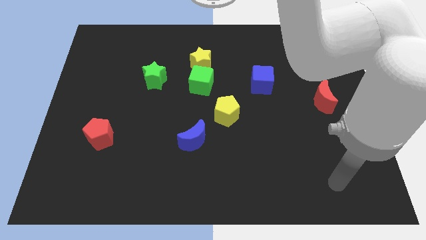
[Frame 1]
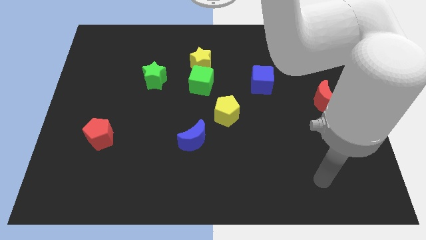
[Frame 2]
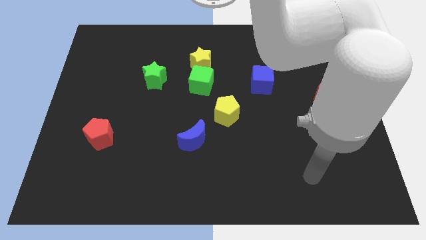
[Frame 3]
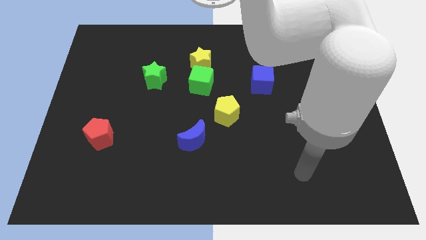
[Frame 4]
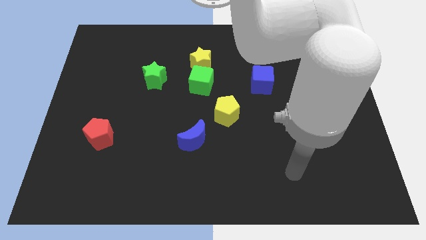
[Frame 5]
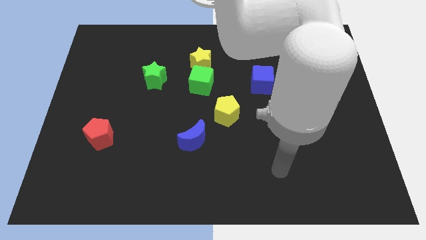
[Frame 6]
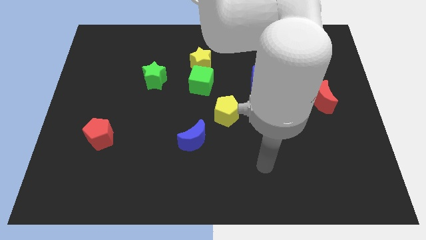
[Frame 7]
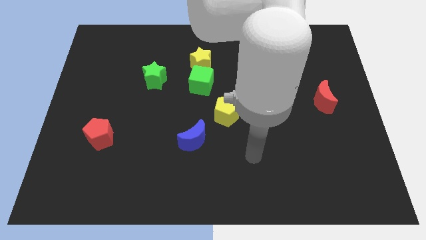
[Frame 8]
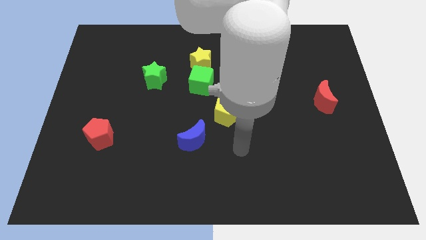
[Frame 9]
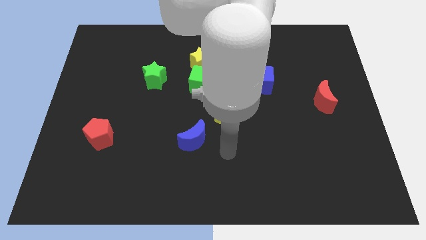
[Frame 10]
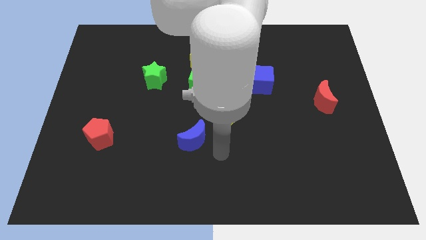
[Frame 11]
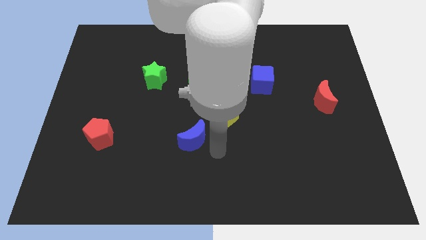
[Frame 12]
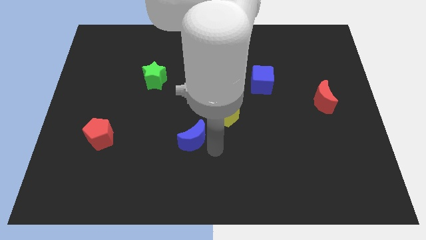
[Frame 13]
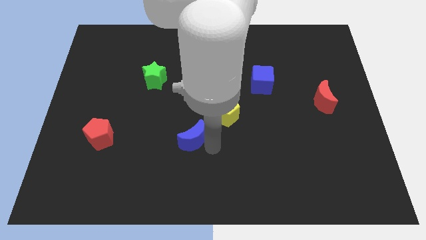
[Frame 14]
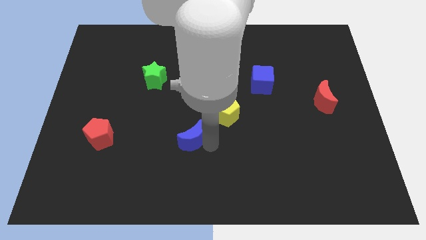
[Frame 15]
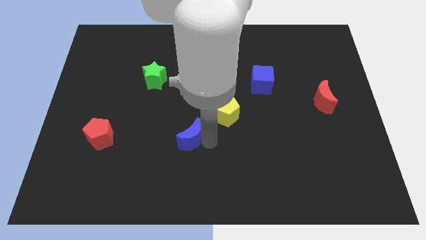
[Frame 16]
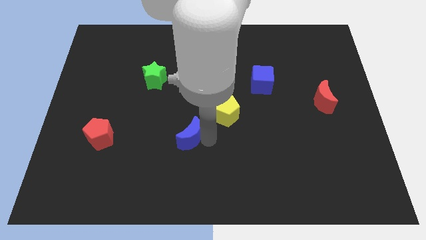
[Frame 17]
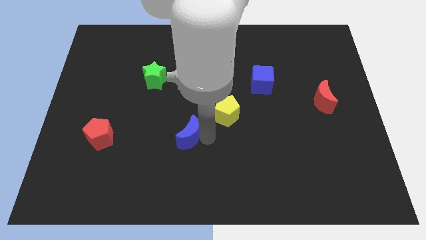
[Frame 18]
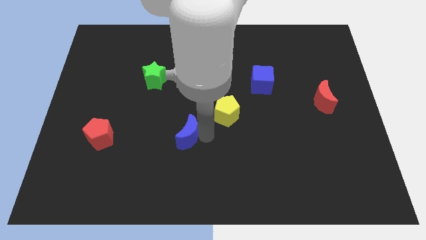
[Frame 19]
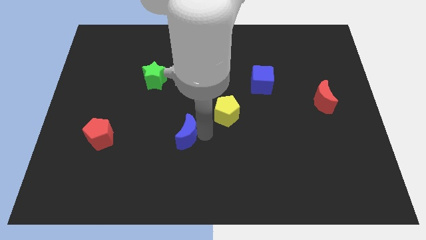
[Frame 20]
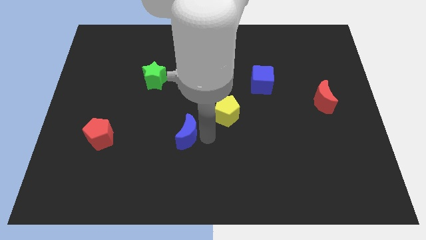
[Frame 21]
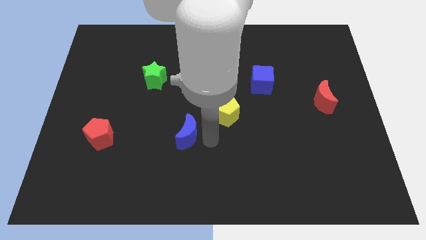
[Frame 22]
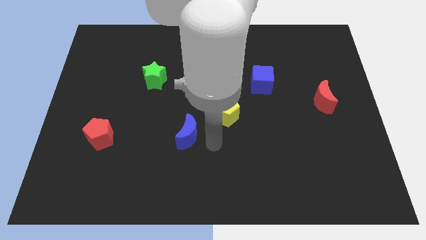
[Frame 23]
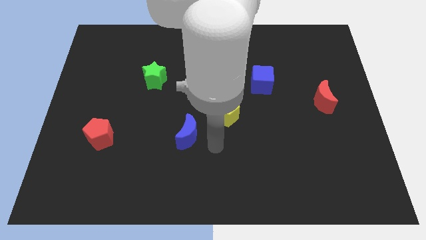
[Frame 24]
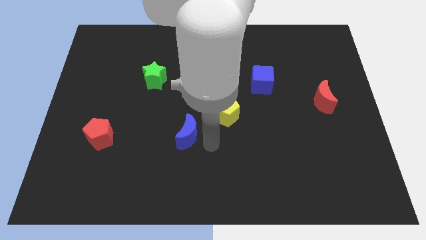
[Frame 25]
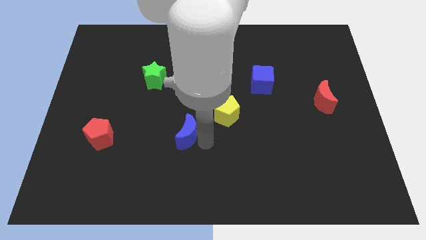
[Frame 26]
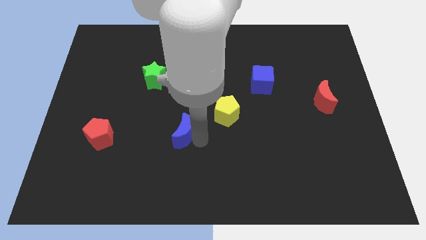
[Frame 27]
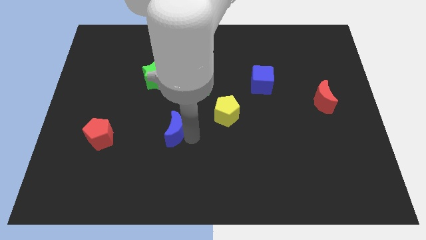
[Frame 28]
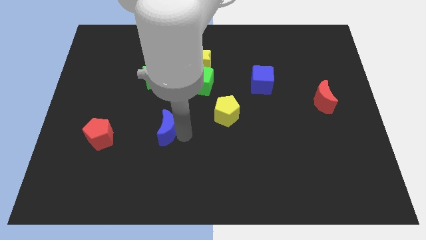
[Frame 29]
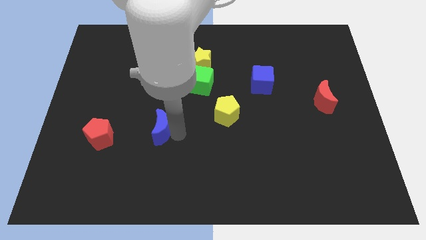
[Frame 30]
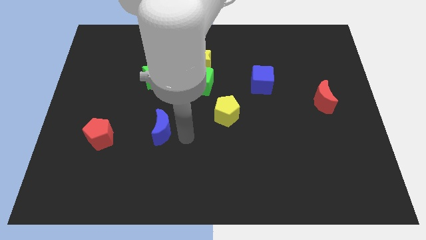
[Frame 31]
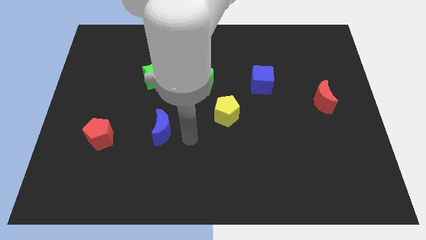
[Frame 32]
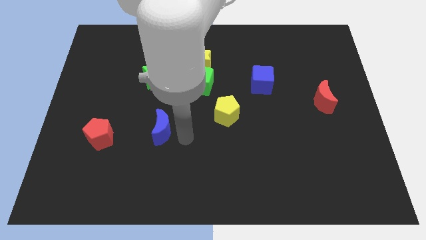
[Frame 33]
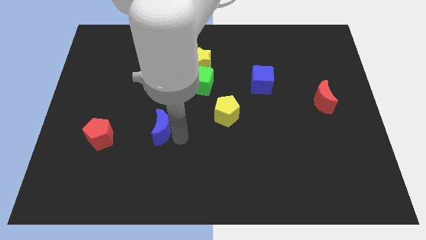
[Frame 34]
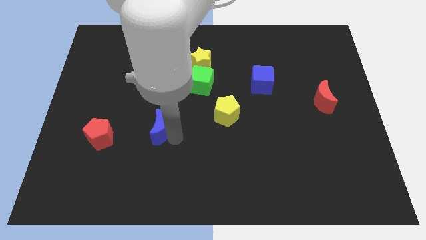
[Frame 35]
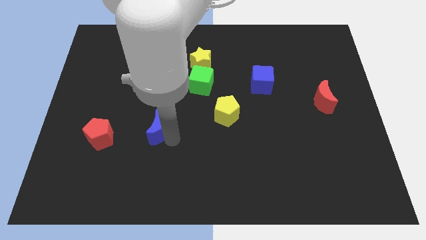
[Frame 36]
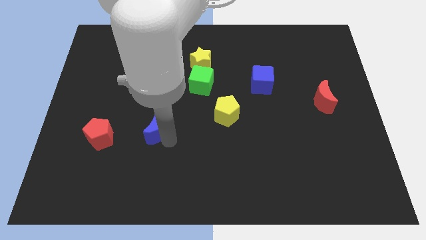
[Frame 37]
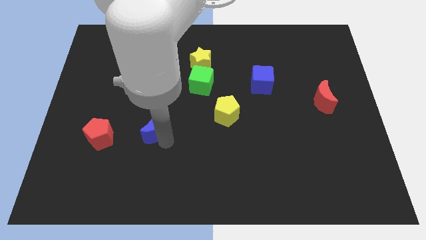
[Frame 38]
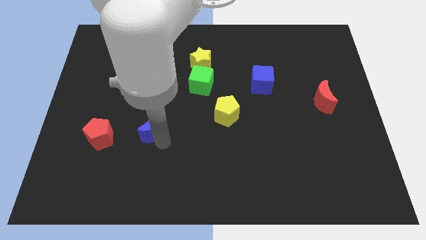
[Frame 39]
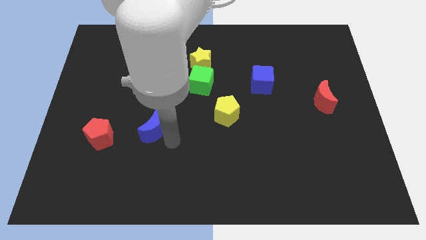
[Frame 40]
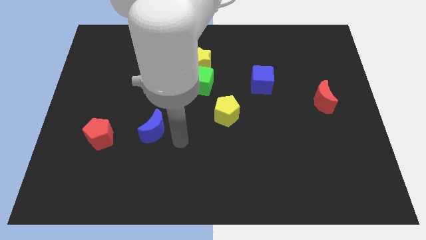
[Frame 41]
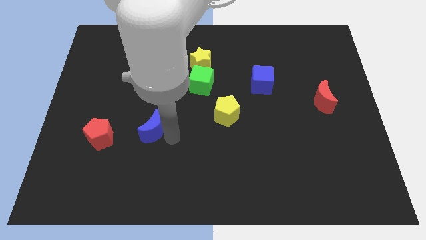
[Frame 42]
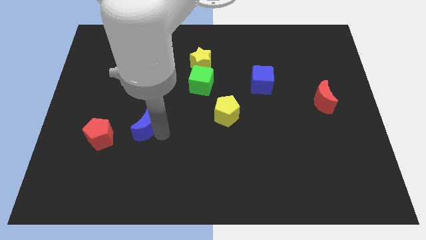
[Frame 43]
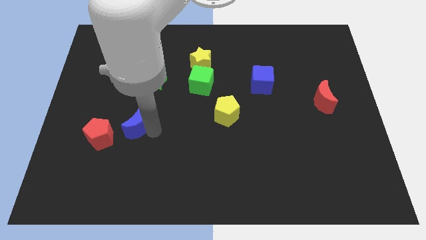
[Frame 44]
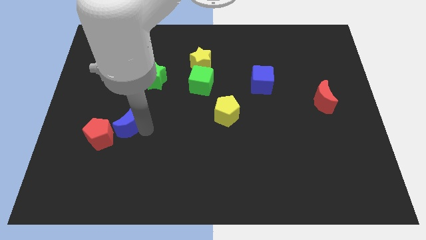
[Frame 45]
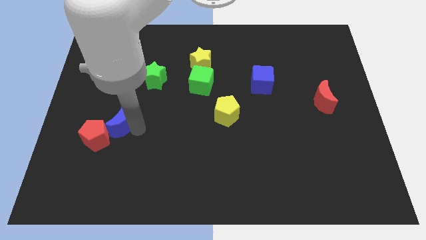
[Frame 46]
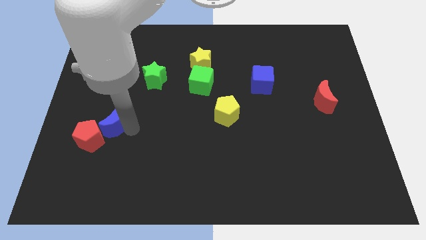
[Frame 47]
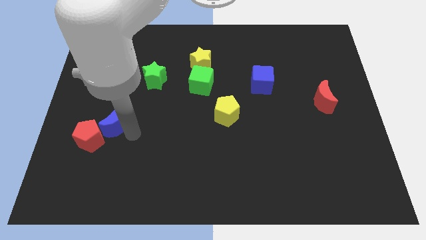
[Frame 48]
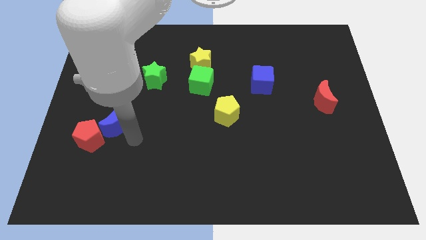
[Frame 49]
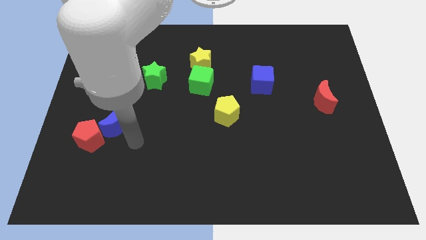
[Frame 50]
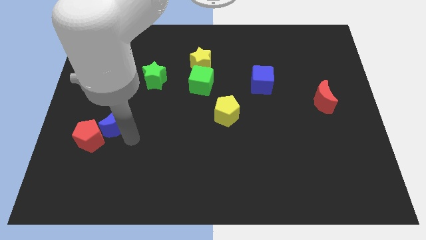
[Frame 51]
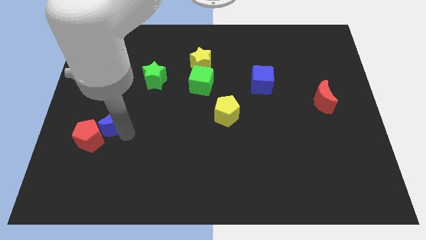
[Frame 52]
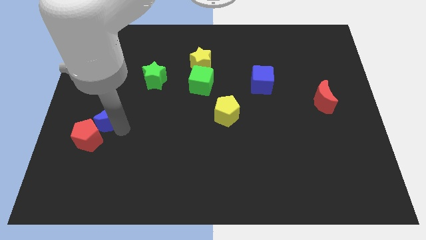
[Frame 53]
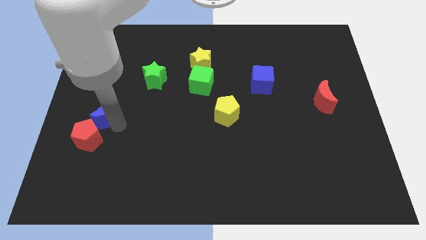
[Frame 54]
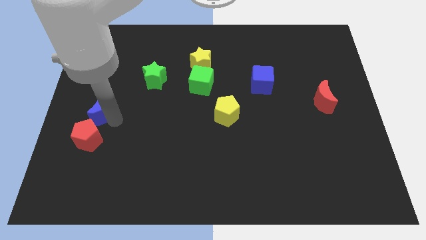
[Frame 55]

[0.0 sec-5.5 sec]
push the blue moon to the left side

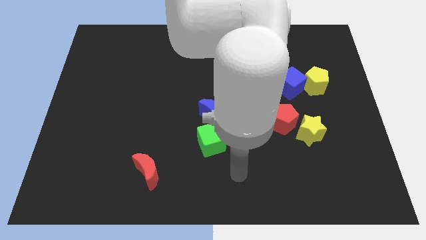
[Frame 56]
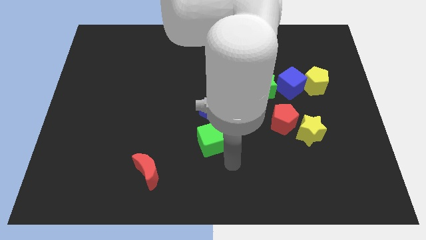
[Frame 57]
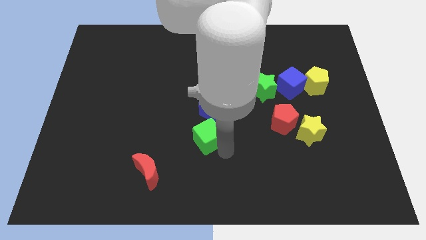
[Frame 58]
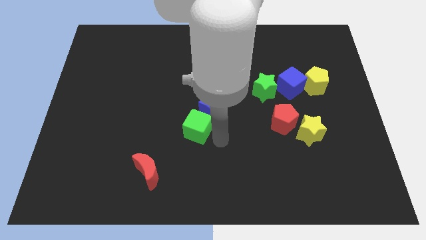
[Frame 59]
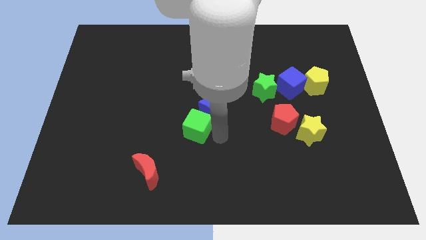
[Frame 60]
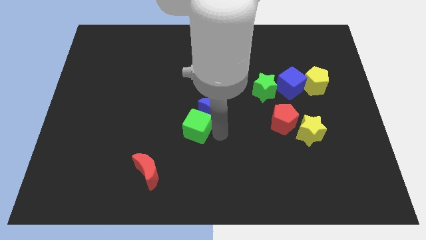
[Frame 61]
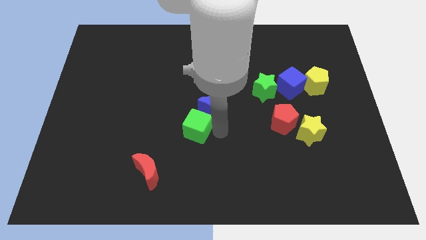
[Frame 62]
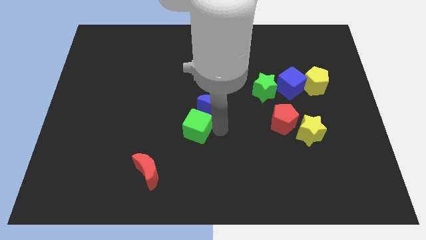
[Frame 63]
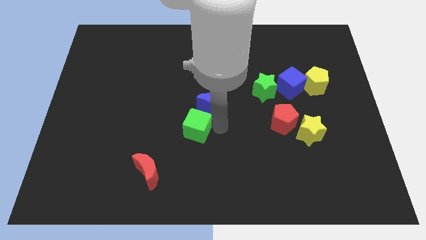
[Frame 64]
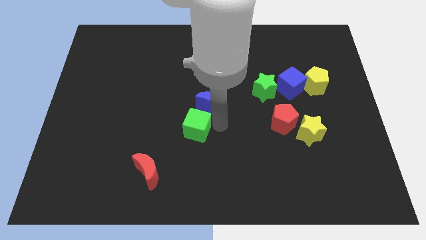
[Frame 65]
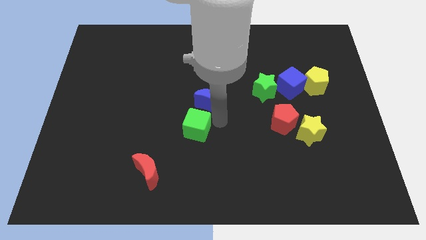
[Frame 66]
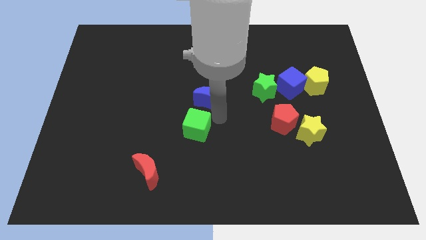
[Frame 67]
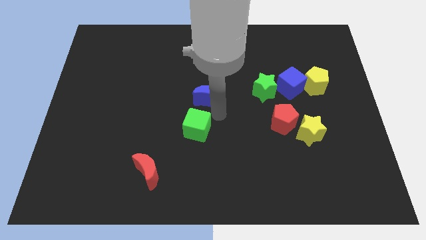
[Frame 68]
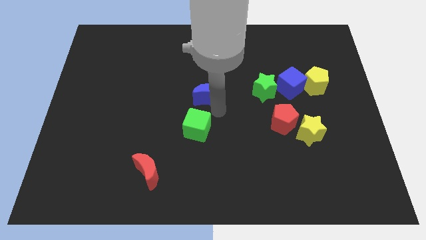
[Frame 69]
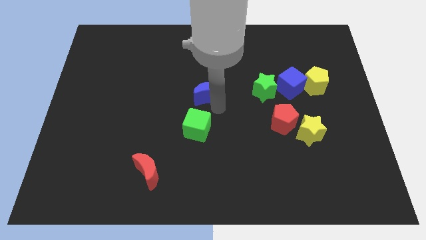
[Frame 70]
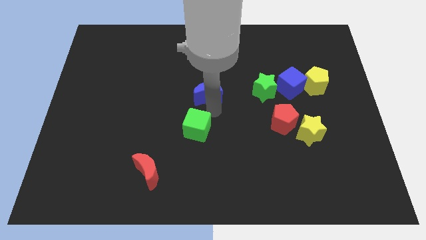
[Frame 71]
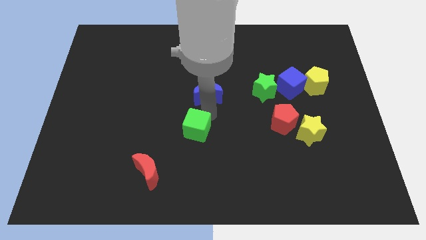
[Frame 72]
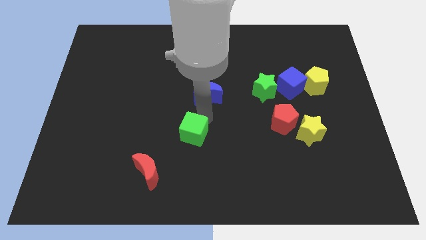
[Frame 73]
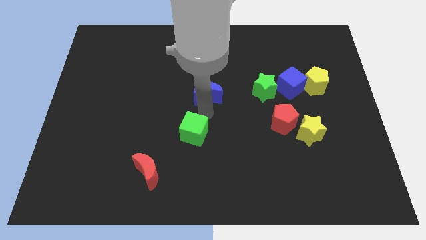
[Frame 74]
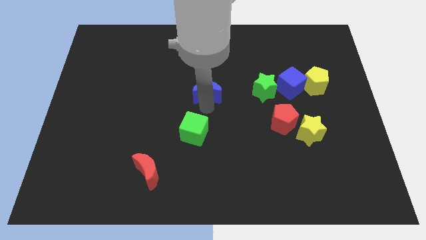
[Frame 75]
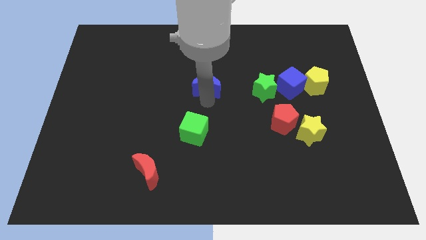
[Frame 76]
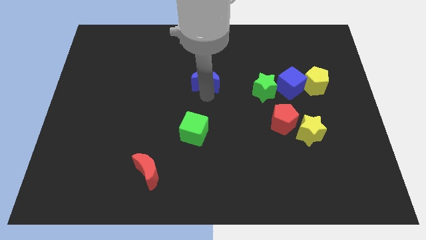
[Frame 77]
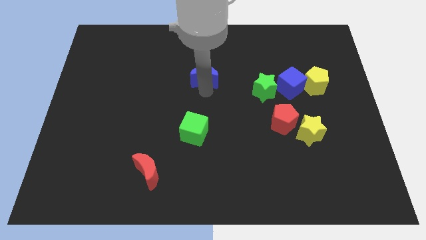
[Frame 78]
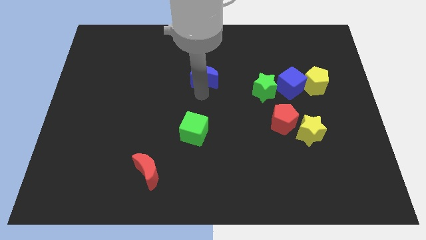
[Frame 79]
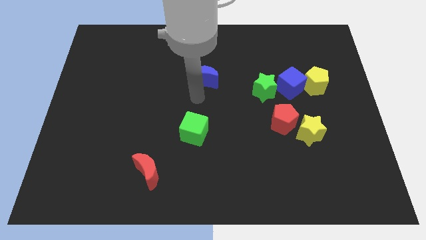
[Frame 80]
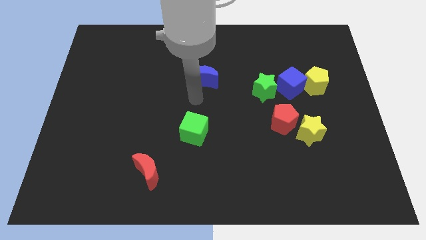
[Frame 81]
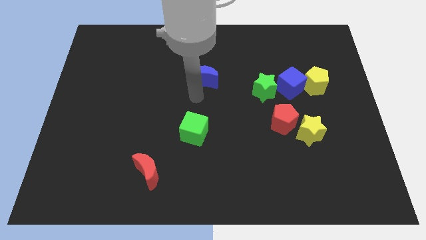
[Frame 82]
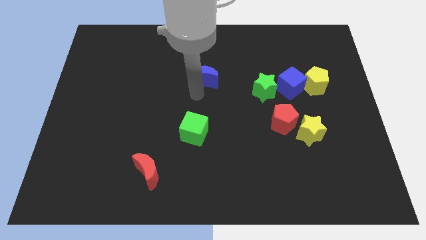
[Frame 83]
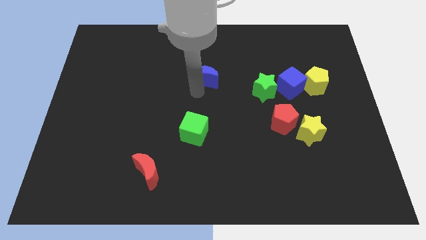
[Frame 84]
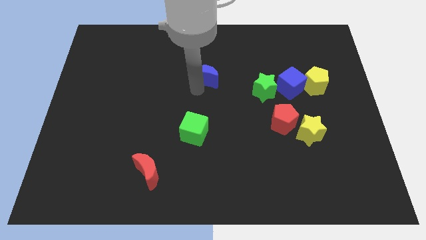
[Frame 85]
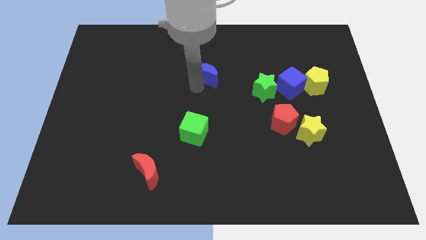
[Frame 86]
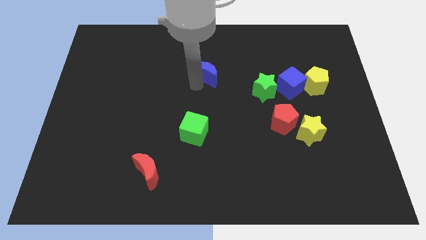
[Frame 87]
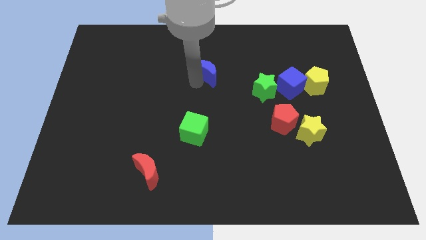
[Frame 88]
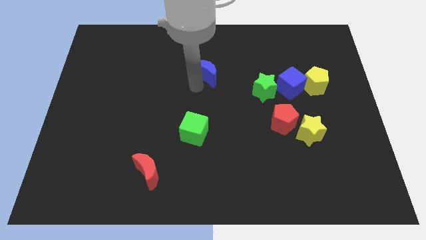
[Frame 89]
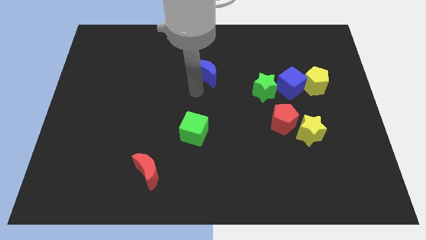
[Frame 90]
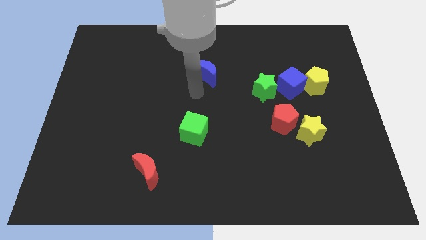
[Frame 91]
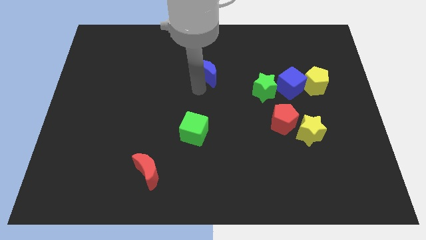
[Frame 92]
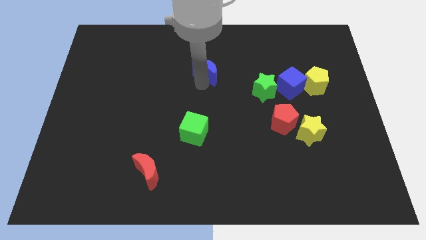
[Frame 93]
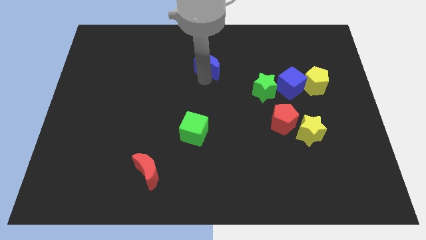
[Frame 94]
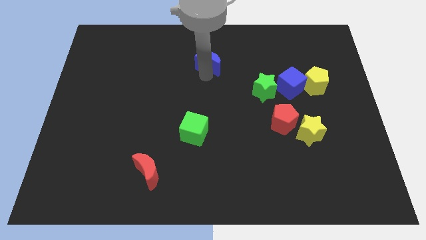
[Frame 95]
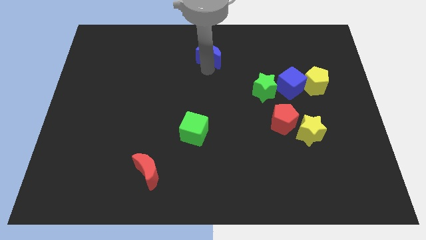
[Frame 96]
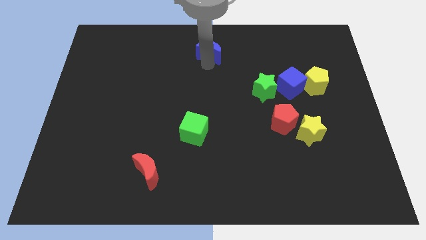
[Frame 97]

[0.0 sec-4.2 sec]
move the blue moon to the top
